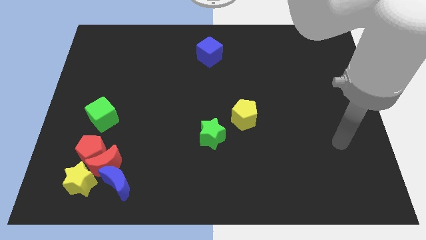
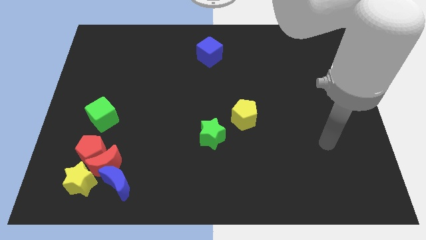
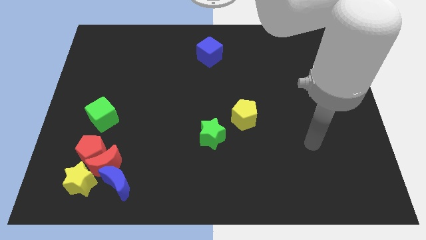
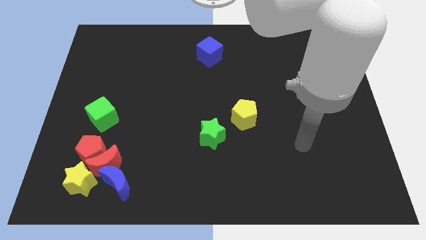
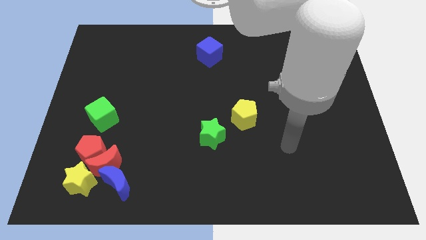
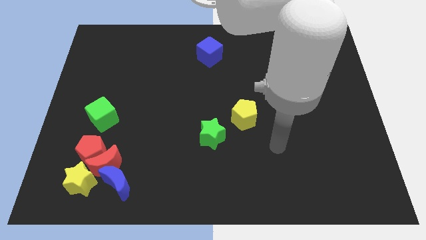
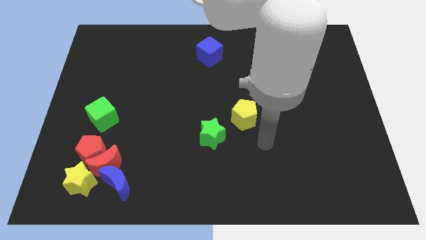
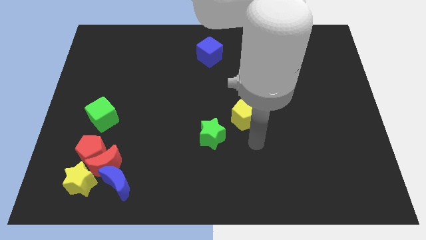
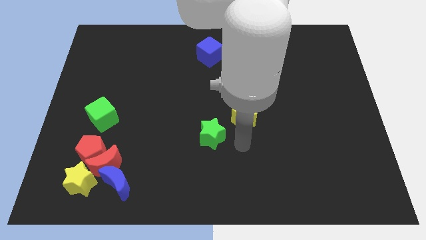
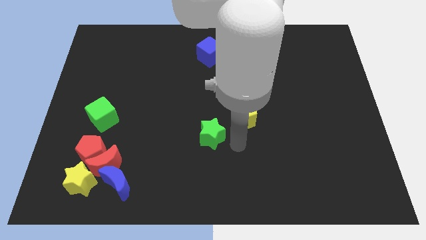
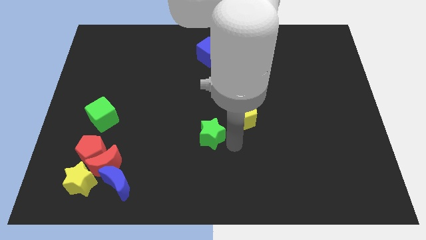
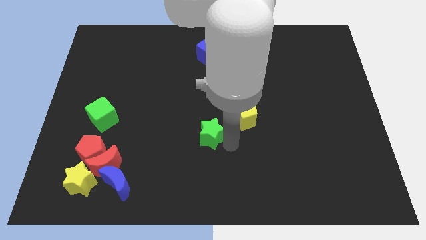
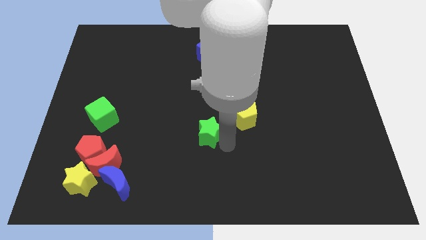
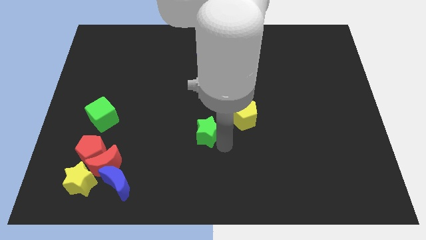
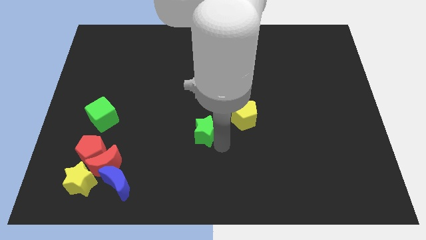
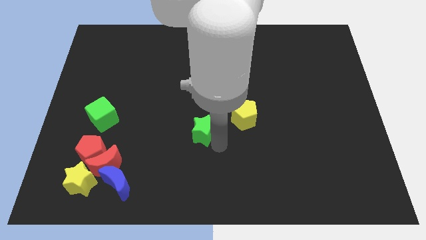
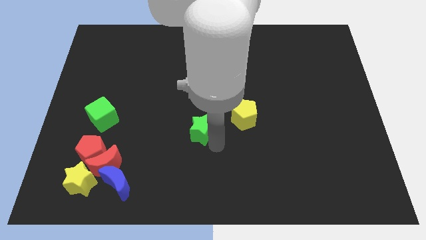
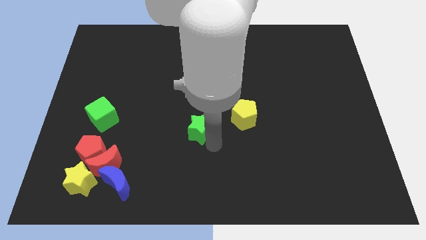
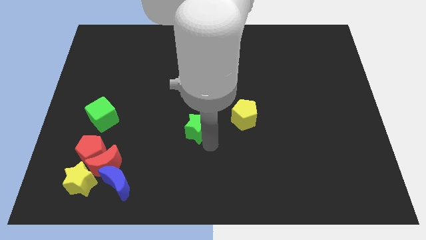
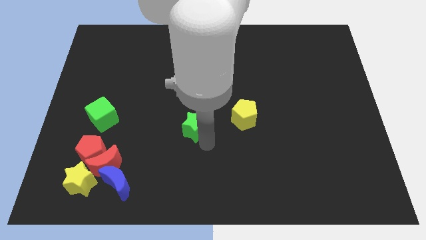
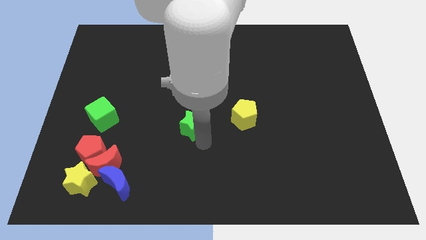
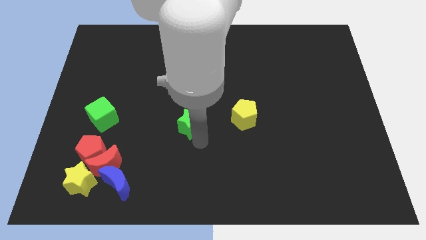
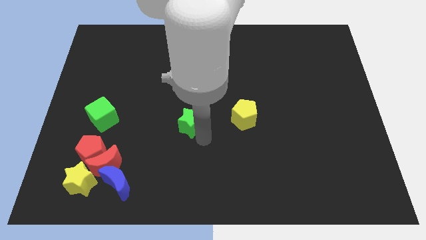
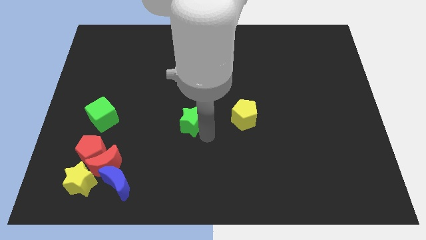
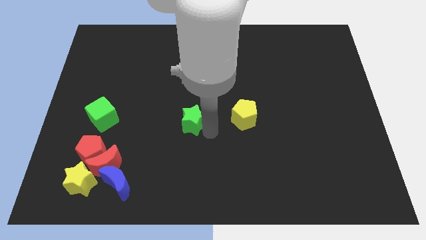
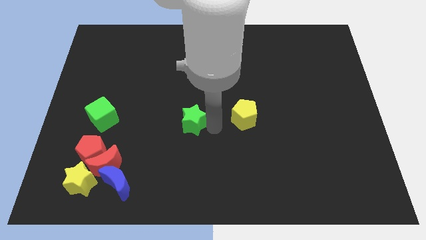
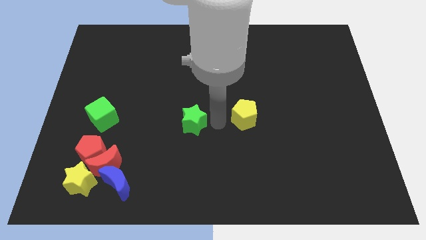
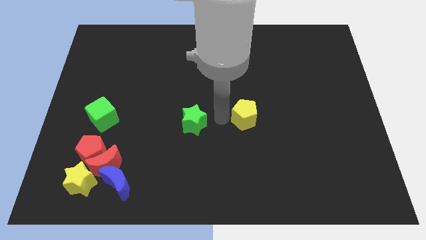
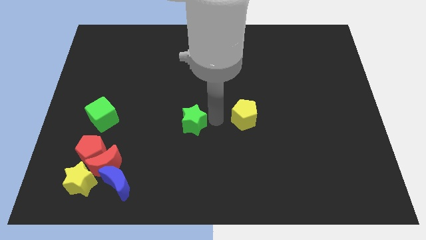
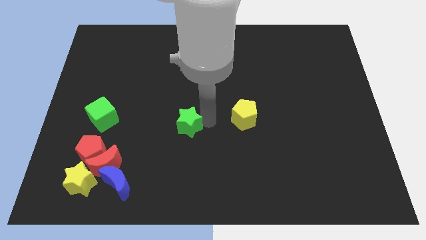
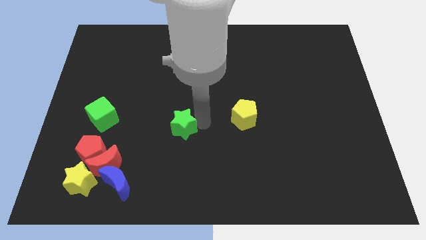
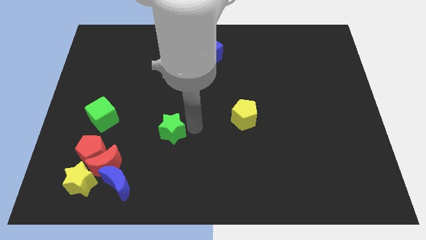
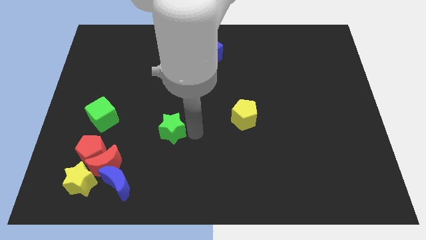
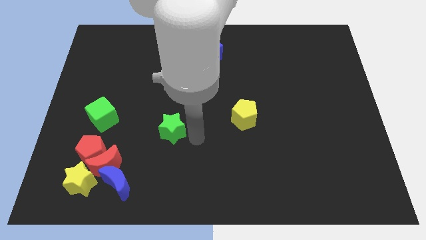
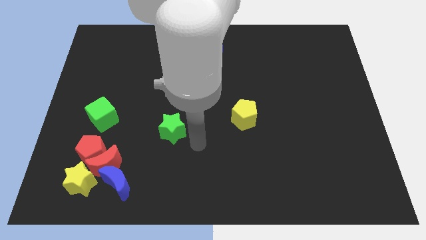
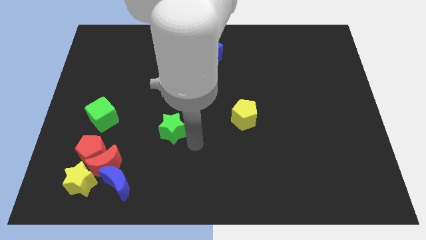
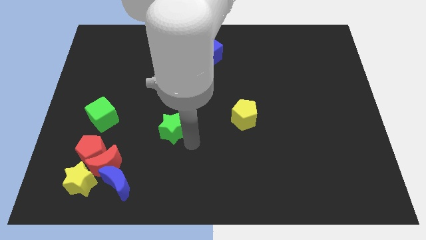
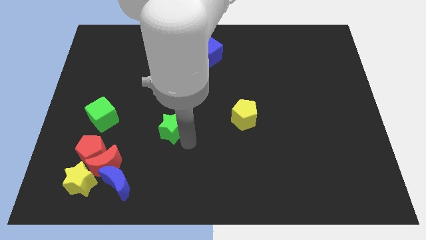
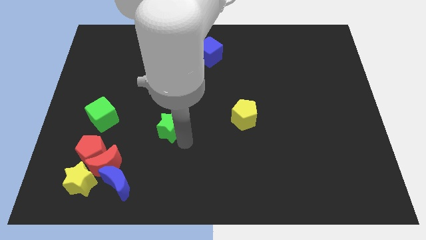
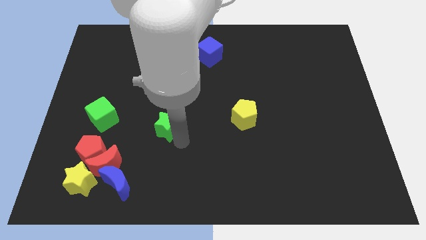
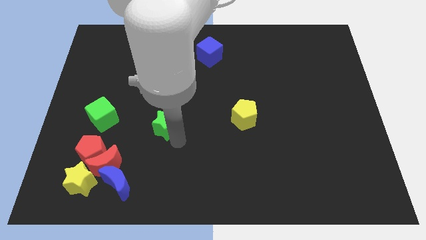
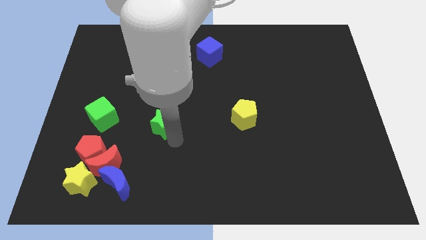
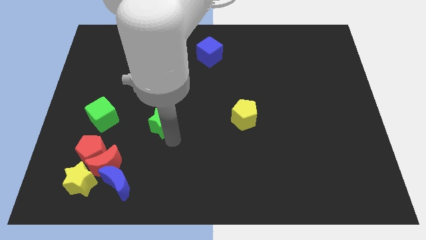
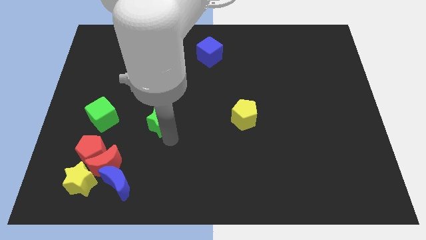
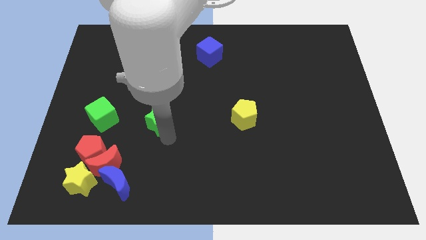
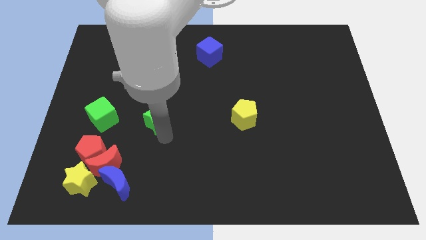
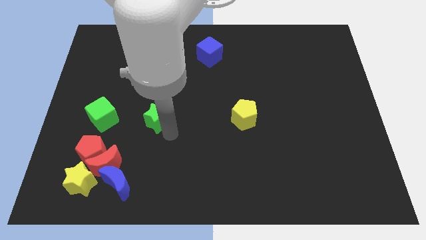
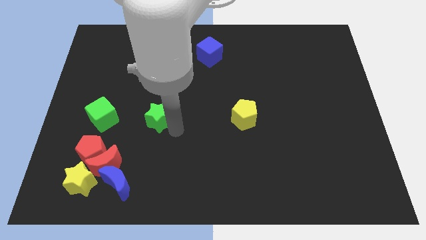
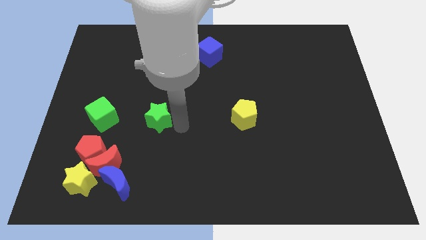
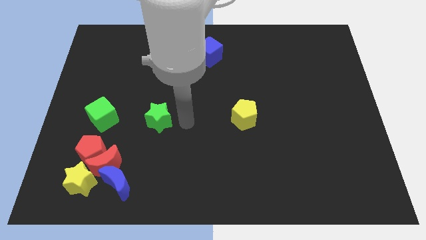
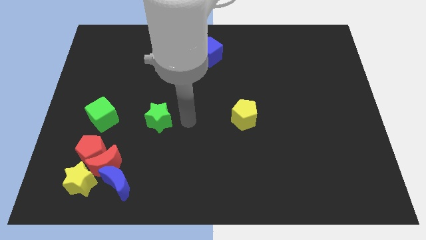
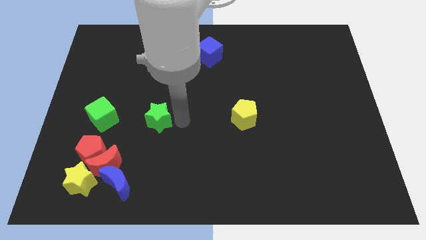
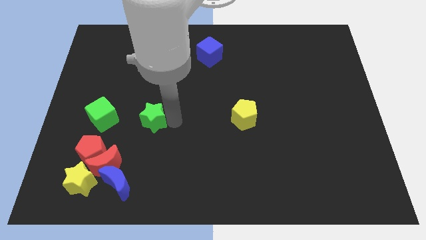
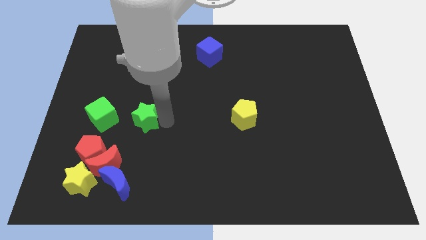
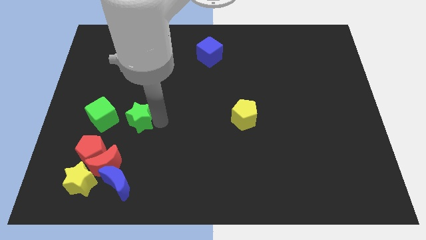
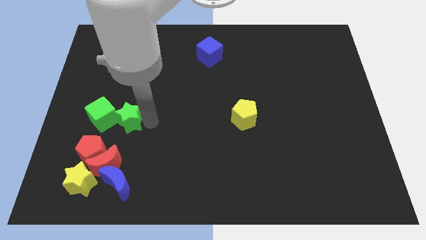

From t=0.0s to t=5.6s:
slide the green star next to the green cube

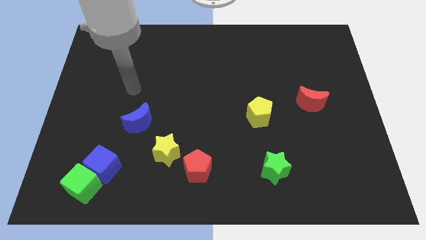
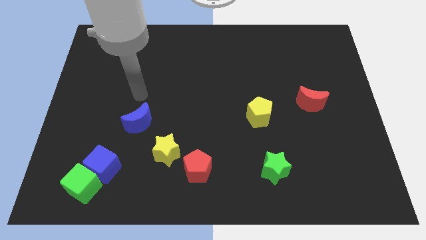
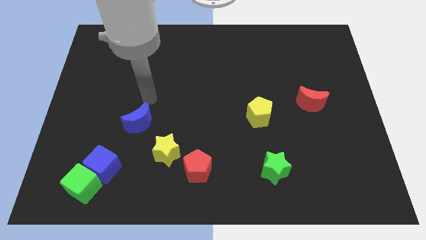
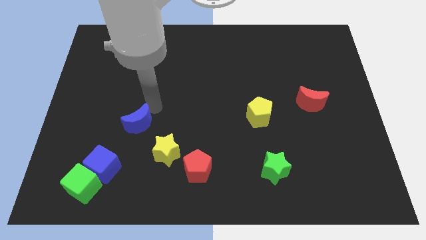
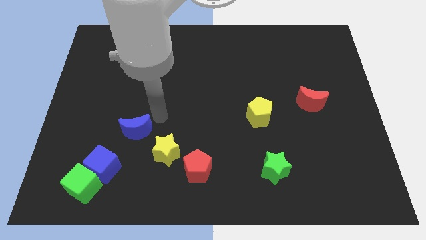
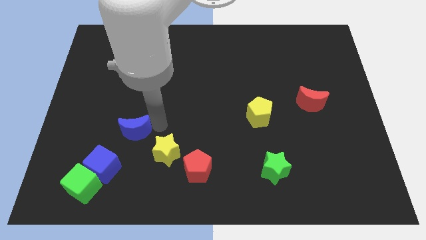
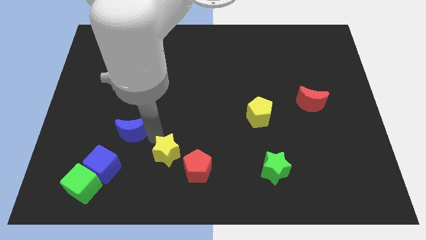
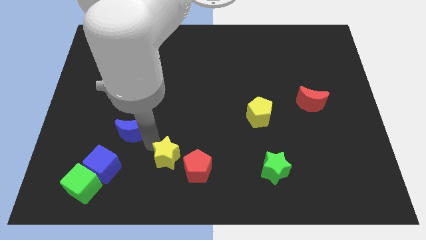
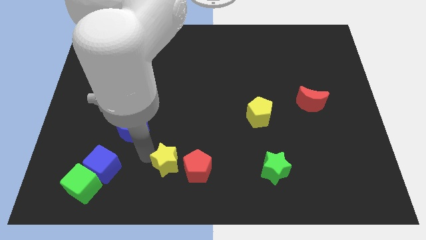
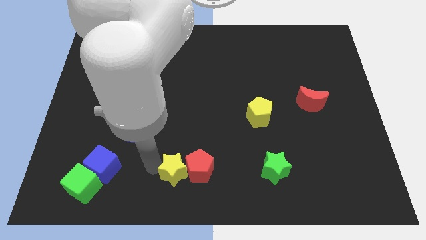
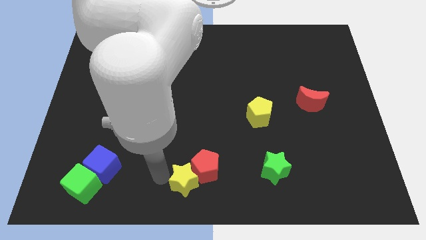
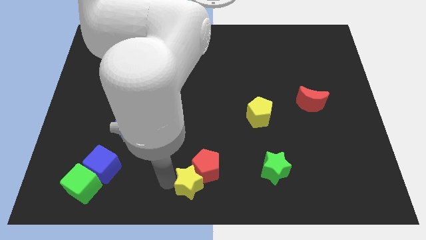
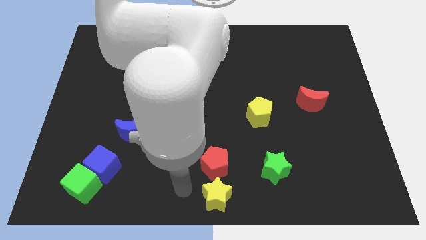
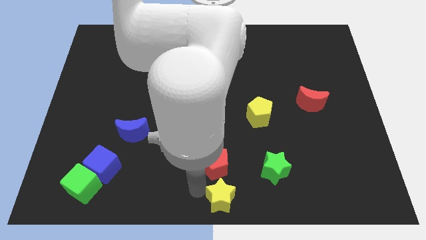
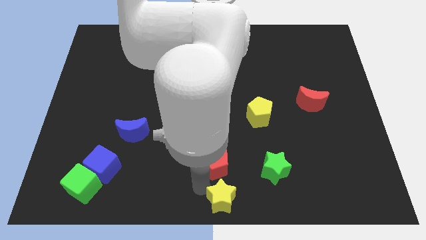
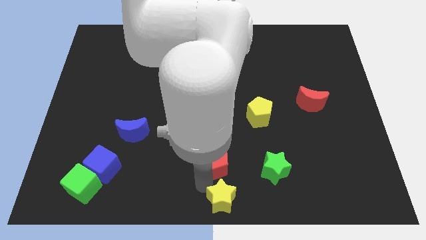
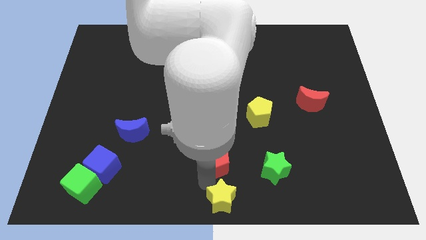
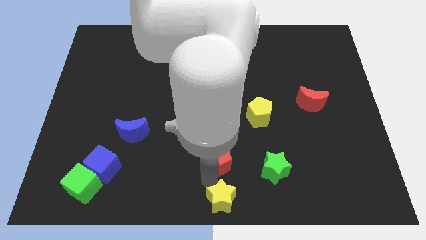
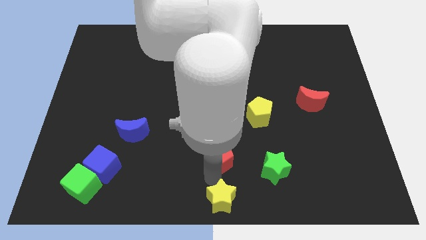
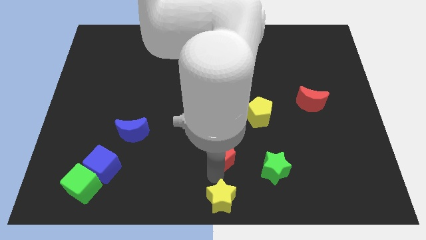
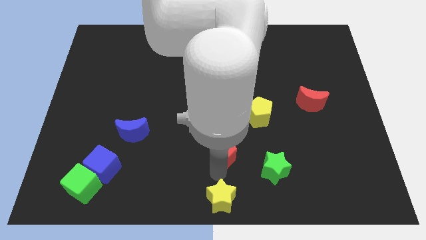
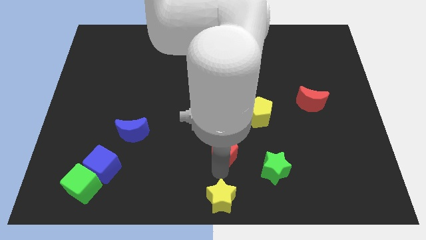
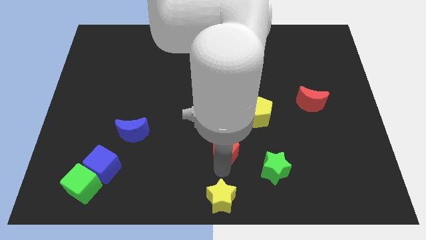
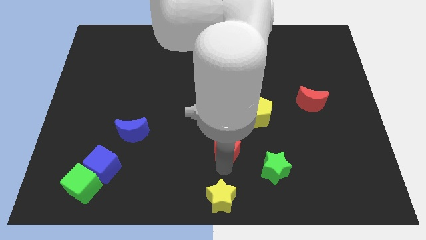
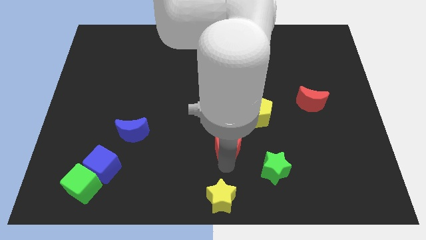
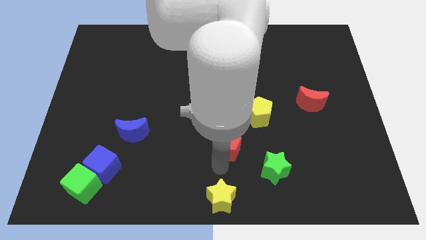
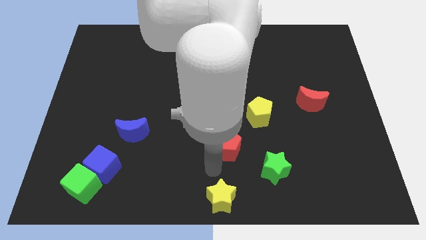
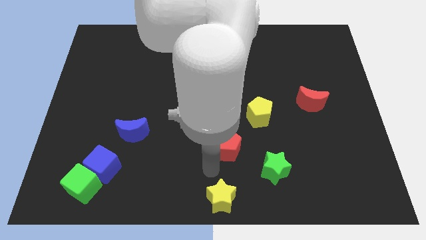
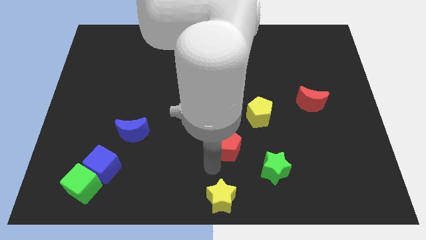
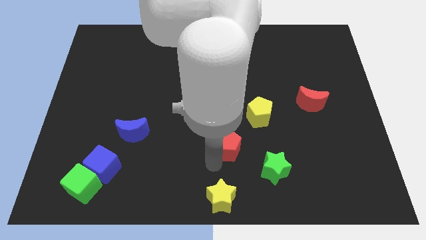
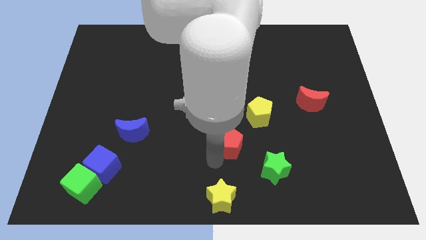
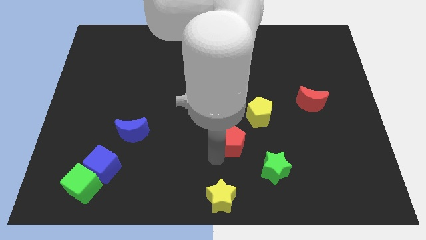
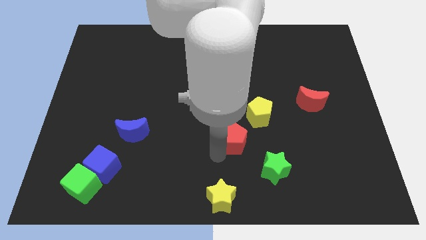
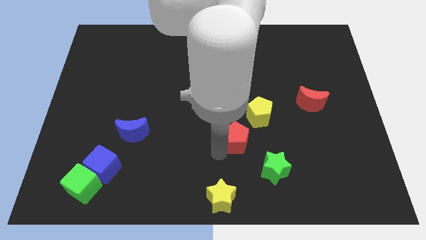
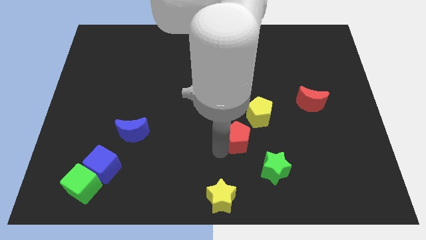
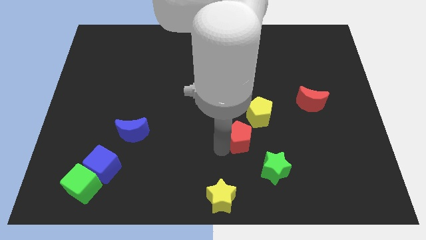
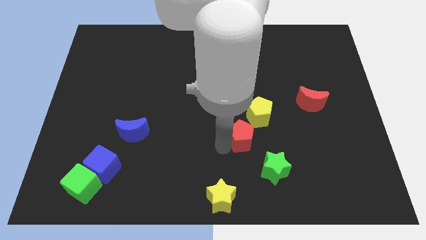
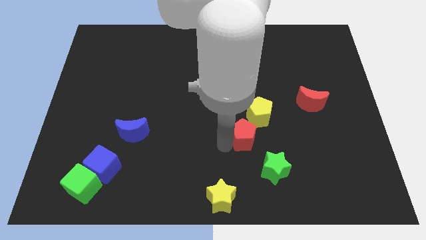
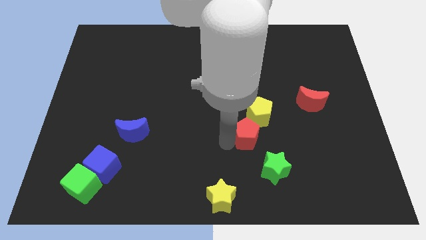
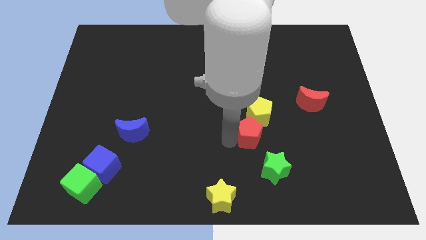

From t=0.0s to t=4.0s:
push the red pentagon to the yellow pentagon
